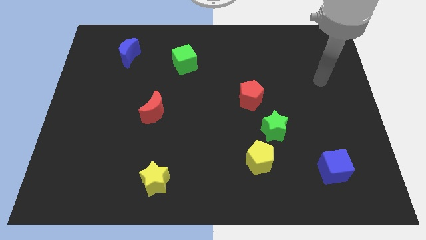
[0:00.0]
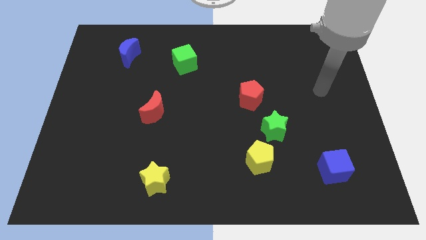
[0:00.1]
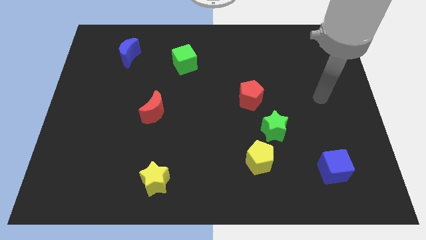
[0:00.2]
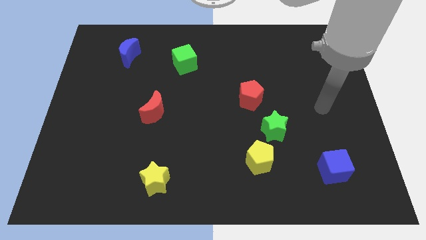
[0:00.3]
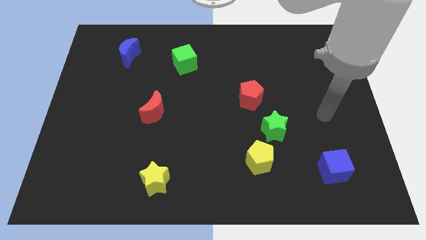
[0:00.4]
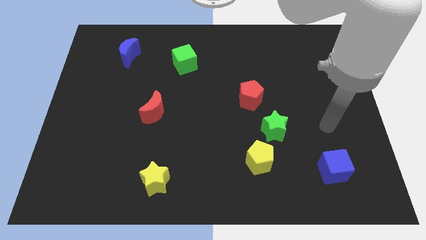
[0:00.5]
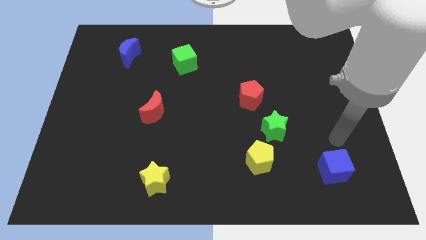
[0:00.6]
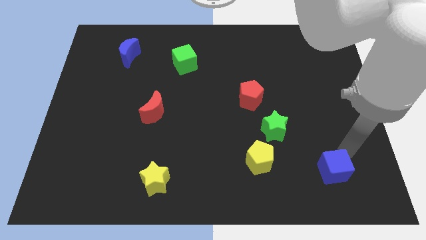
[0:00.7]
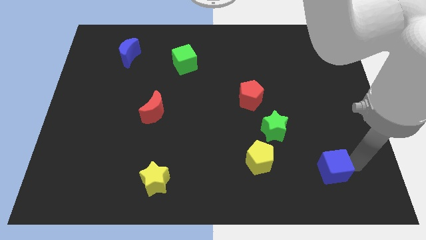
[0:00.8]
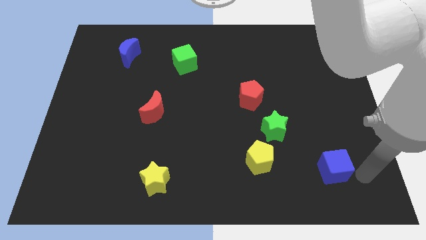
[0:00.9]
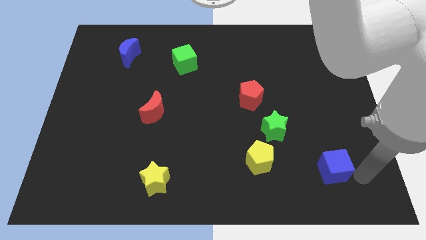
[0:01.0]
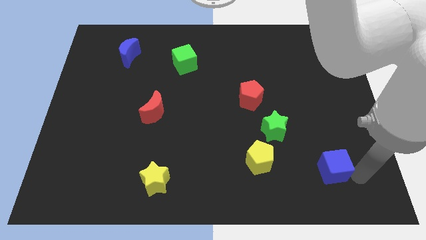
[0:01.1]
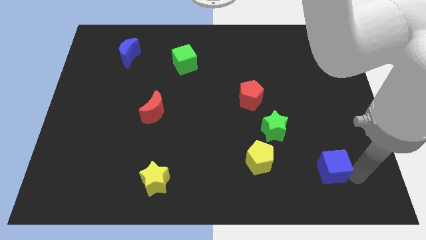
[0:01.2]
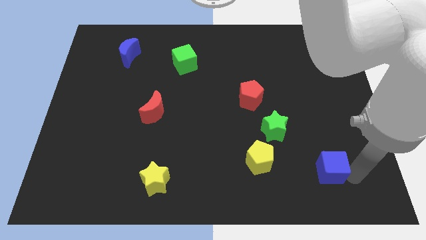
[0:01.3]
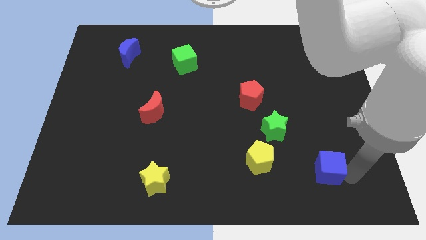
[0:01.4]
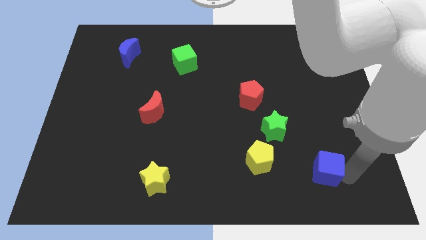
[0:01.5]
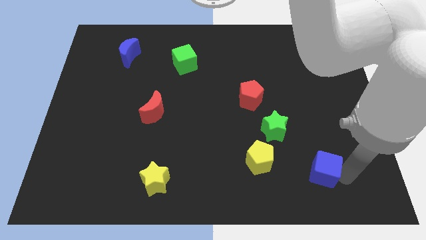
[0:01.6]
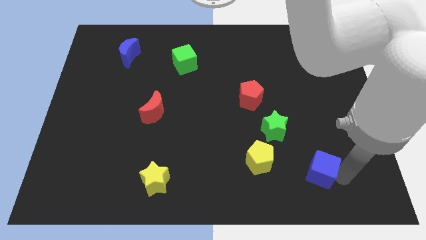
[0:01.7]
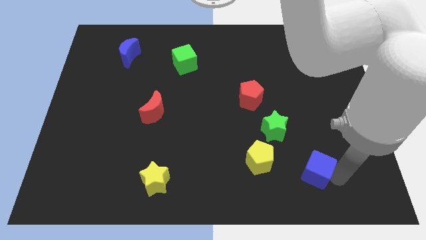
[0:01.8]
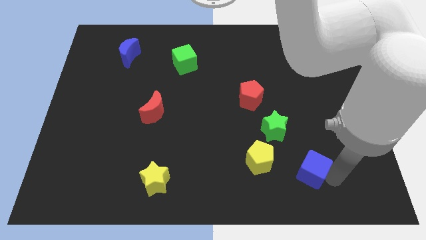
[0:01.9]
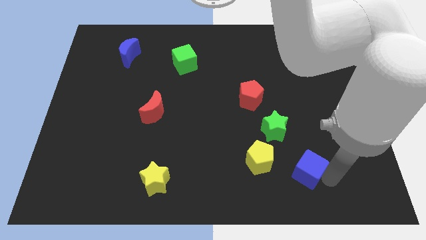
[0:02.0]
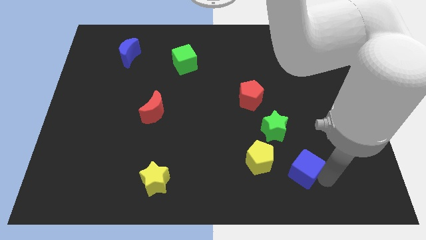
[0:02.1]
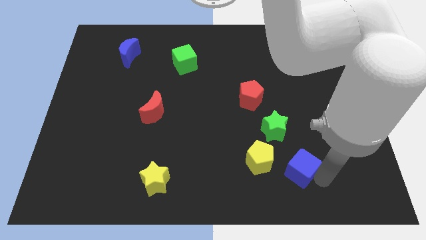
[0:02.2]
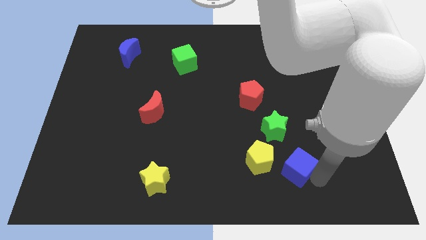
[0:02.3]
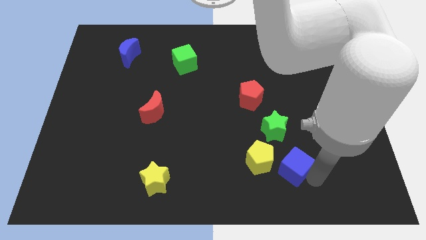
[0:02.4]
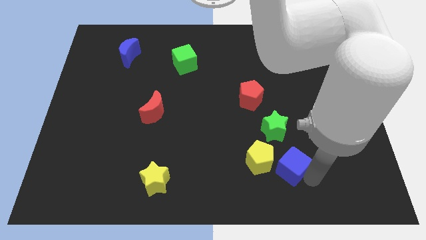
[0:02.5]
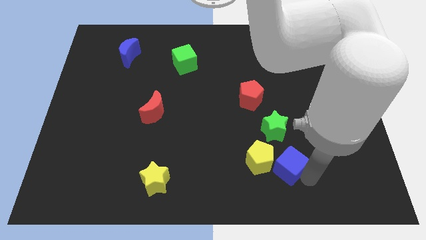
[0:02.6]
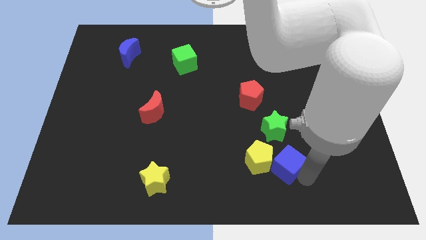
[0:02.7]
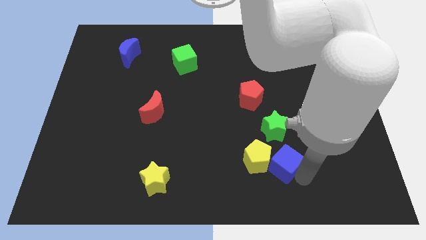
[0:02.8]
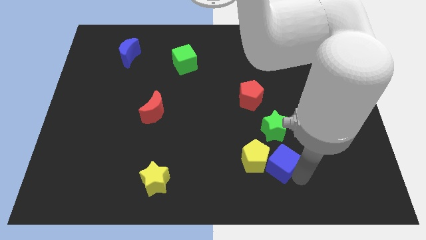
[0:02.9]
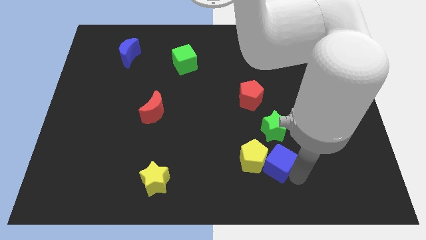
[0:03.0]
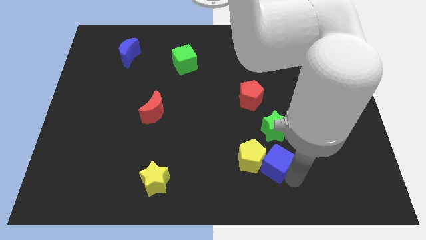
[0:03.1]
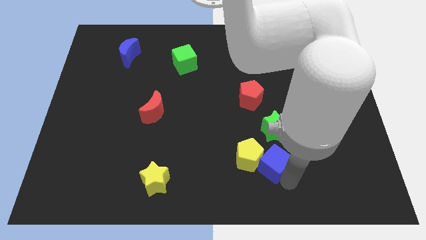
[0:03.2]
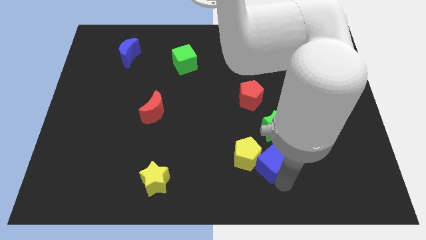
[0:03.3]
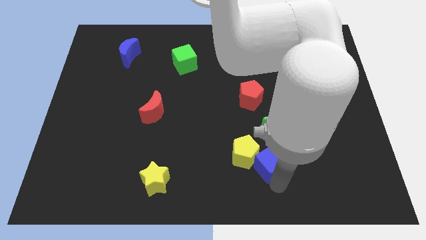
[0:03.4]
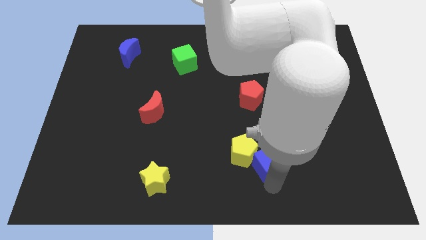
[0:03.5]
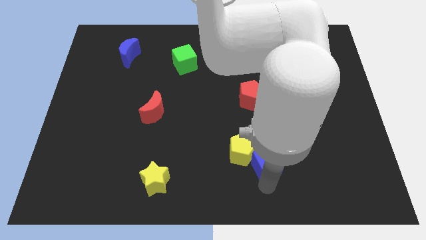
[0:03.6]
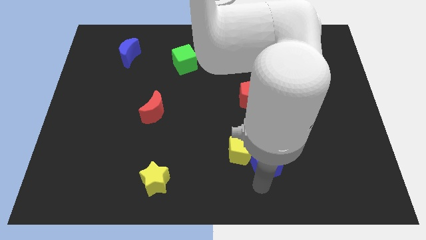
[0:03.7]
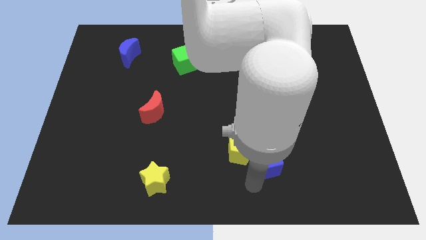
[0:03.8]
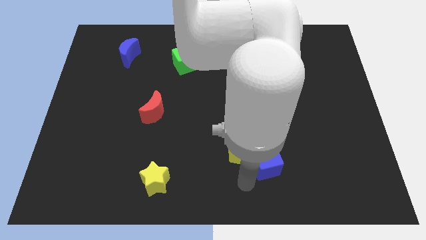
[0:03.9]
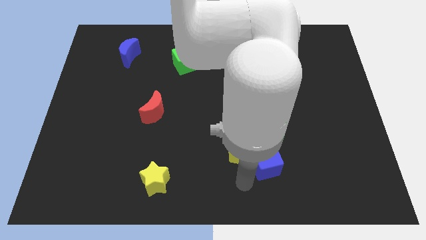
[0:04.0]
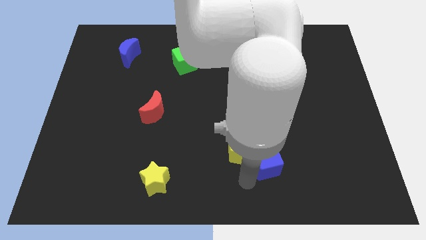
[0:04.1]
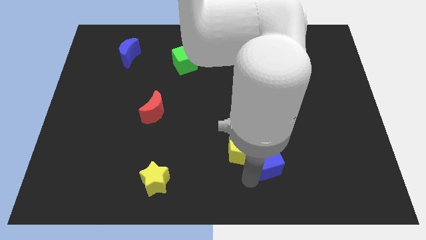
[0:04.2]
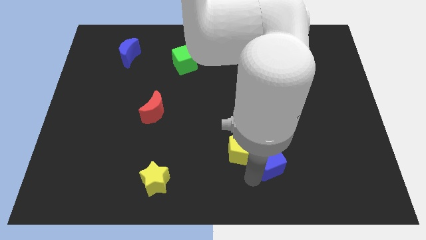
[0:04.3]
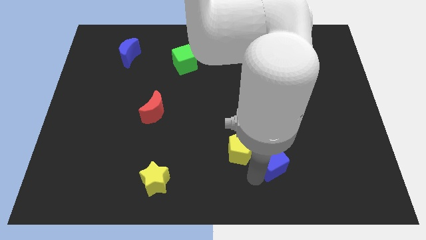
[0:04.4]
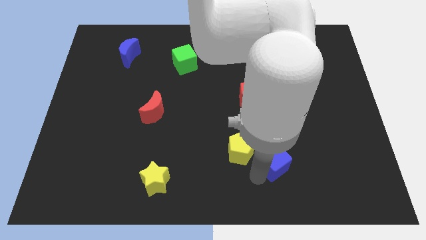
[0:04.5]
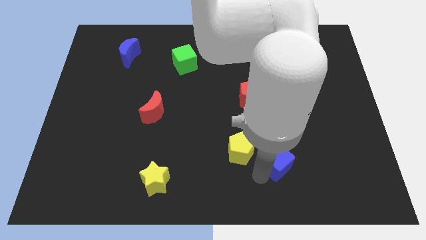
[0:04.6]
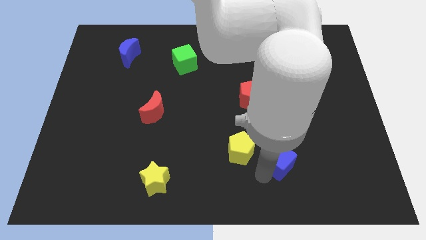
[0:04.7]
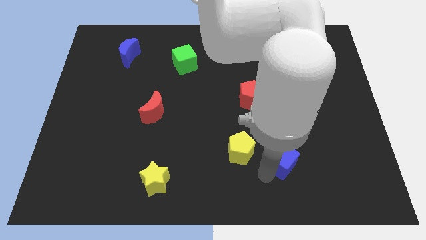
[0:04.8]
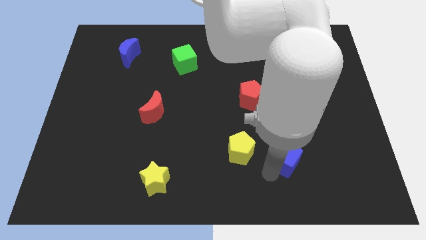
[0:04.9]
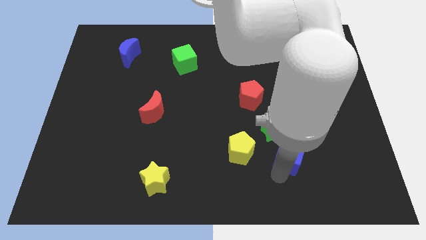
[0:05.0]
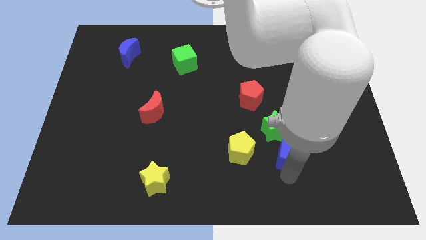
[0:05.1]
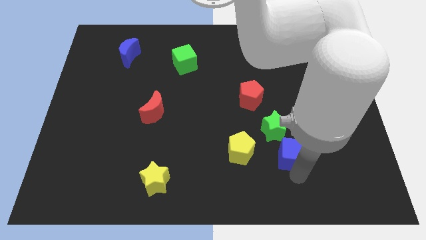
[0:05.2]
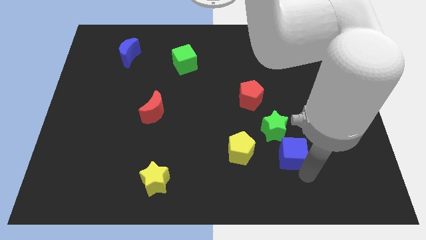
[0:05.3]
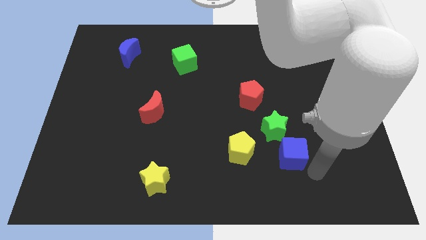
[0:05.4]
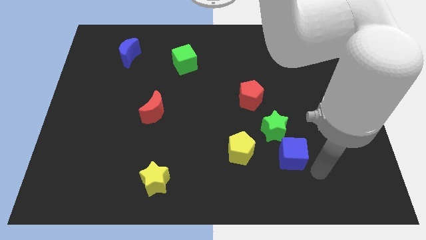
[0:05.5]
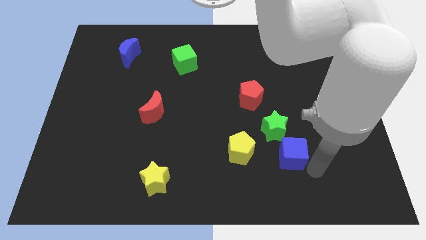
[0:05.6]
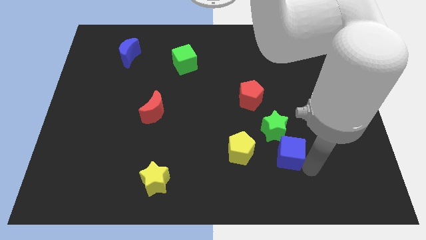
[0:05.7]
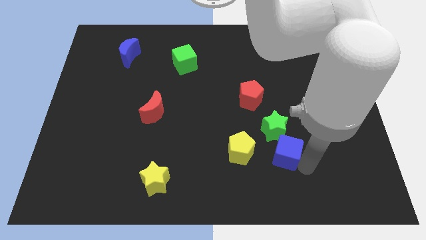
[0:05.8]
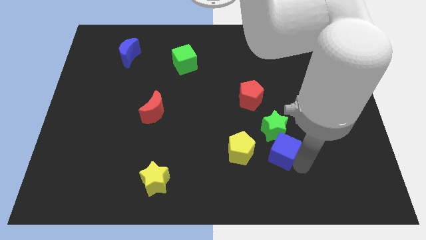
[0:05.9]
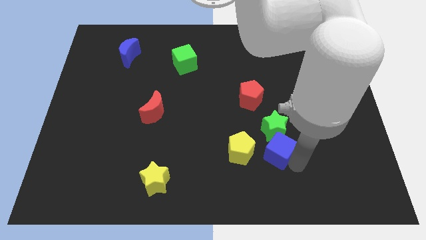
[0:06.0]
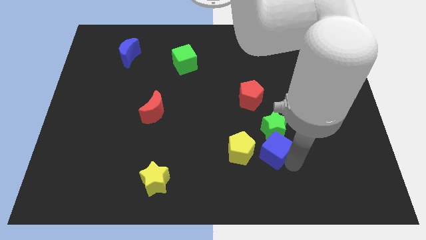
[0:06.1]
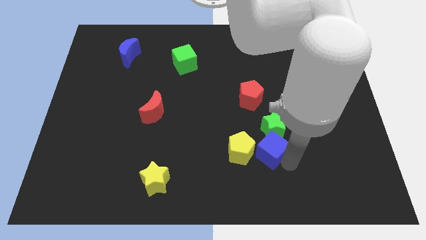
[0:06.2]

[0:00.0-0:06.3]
slide the blue cube below the red pentagon

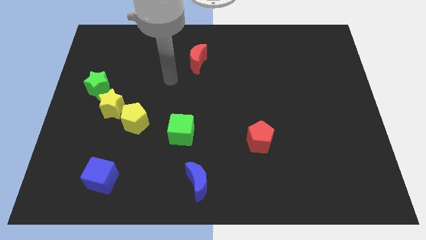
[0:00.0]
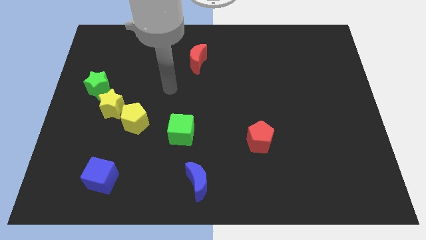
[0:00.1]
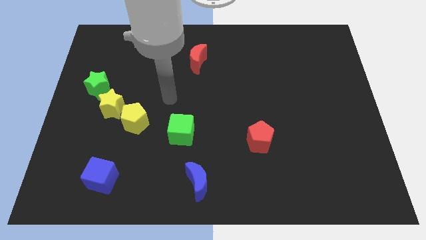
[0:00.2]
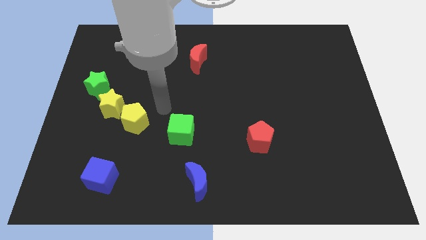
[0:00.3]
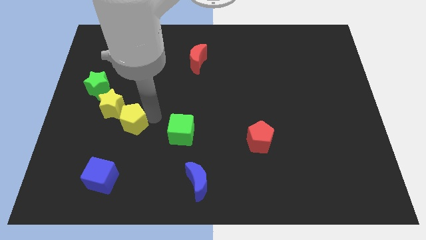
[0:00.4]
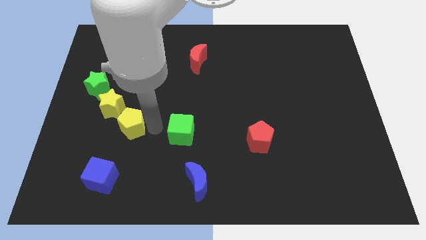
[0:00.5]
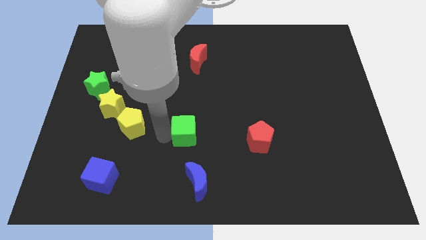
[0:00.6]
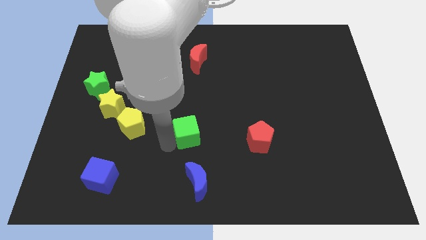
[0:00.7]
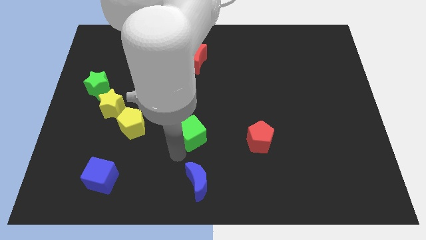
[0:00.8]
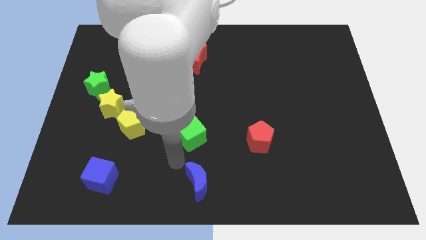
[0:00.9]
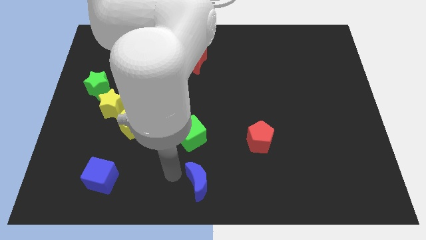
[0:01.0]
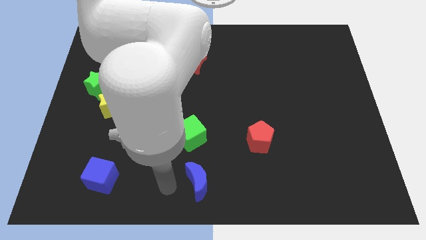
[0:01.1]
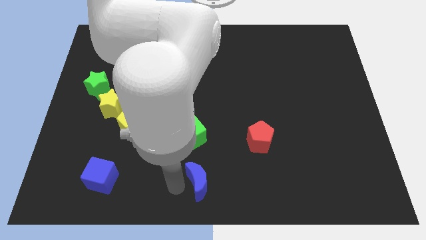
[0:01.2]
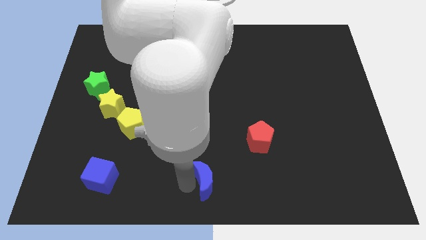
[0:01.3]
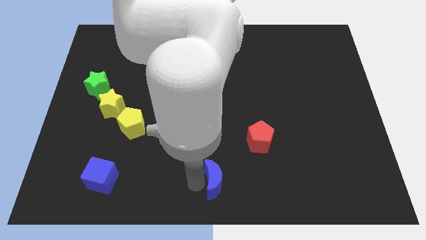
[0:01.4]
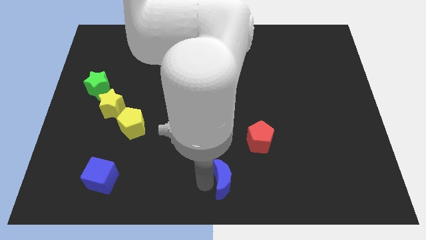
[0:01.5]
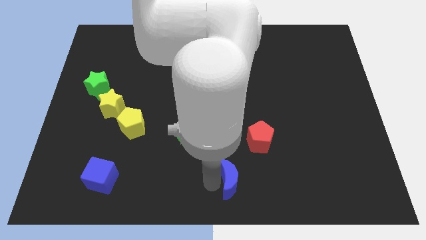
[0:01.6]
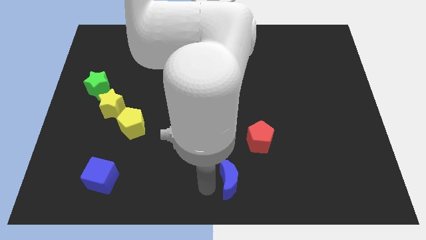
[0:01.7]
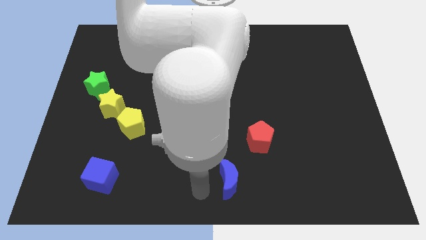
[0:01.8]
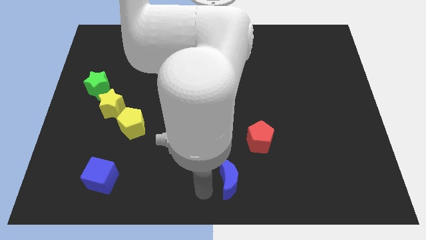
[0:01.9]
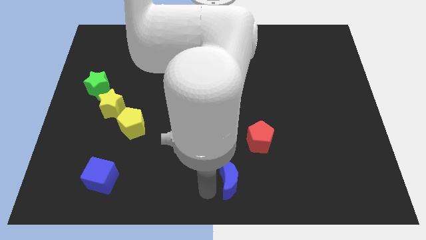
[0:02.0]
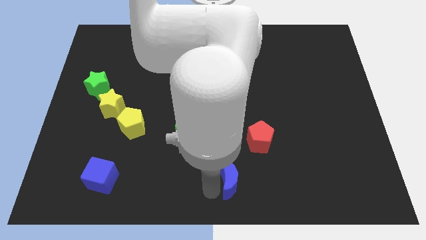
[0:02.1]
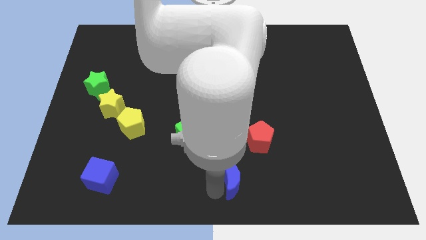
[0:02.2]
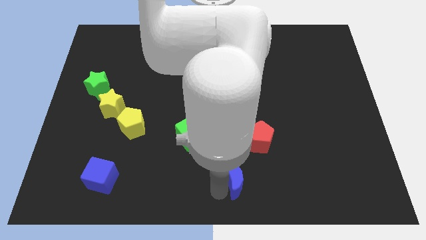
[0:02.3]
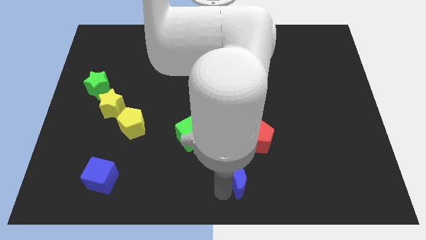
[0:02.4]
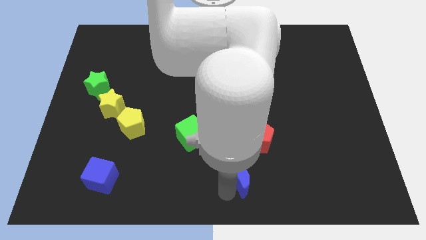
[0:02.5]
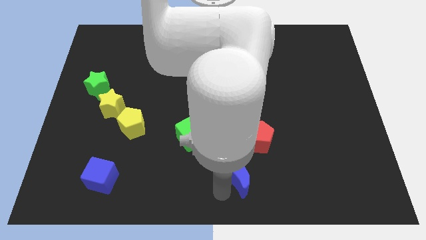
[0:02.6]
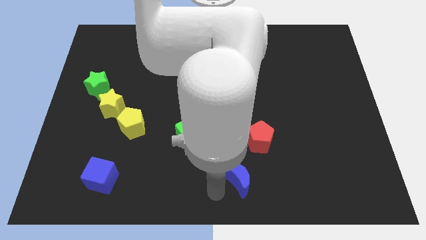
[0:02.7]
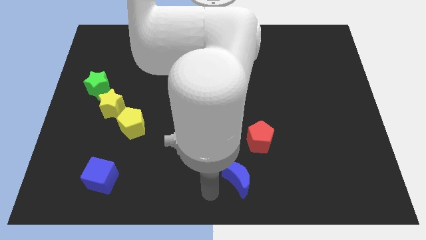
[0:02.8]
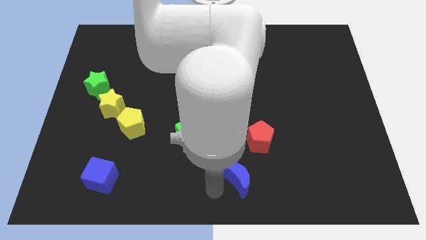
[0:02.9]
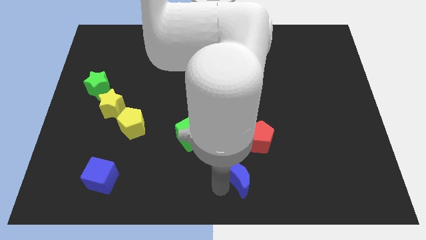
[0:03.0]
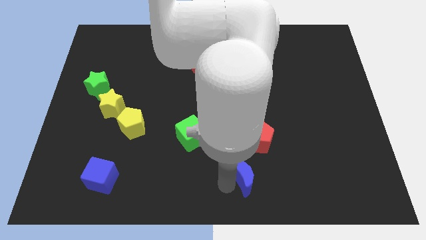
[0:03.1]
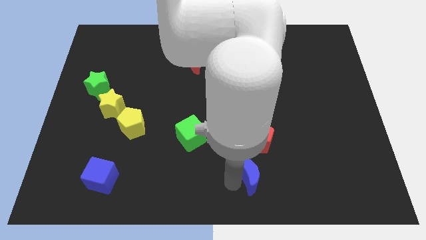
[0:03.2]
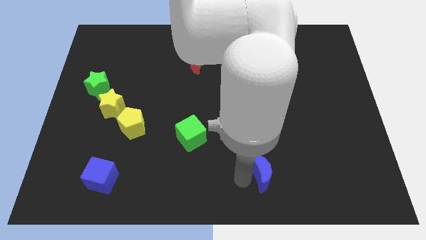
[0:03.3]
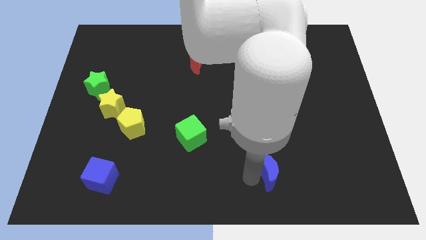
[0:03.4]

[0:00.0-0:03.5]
put the blue moon to the bottom right of the red pentagon
